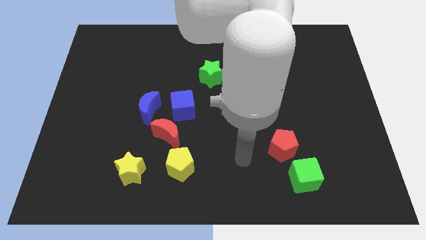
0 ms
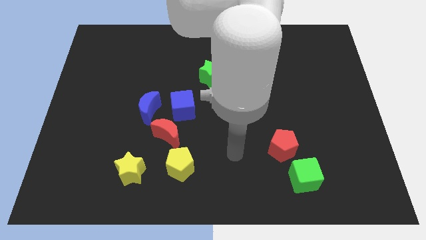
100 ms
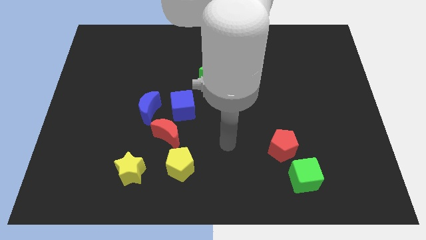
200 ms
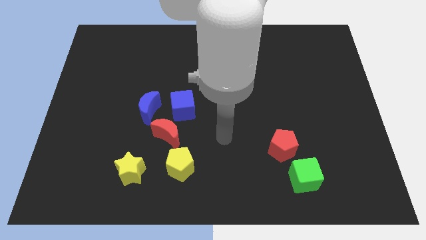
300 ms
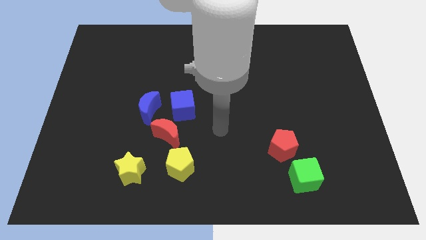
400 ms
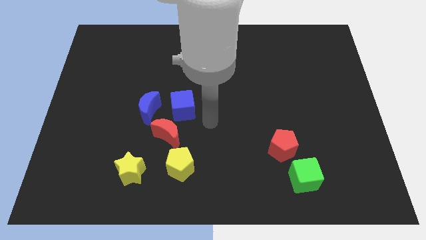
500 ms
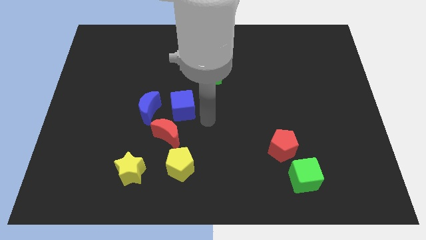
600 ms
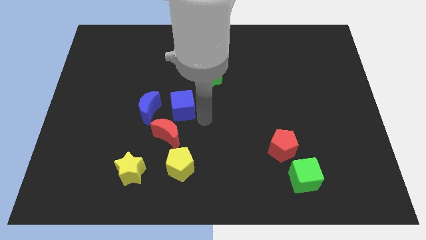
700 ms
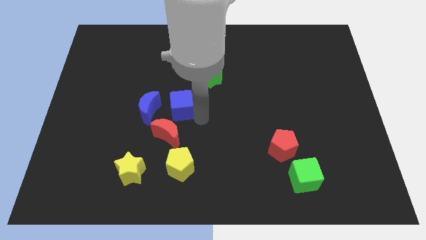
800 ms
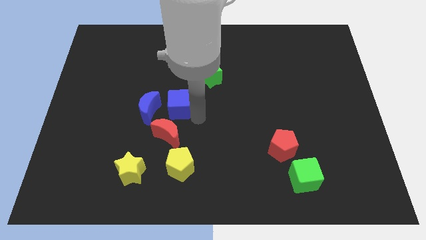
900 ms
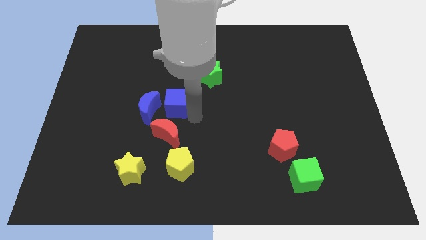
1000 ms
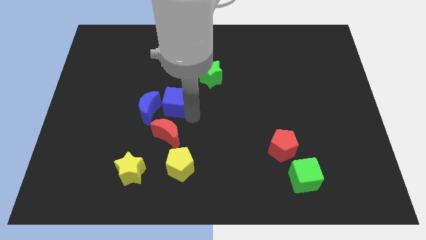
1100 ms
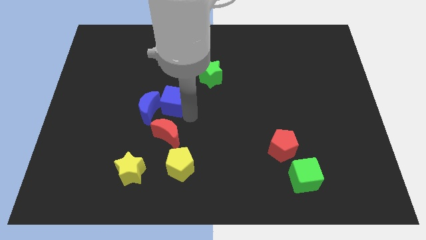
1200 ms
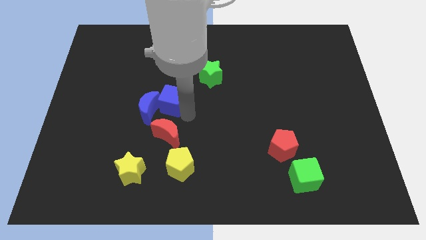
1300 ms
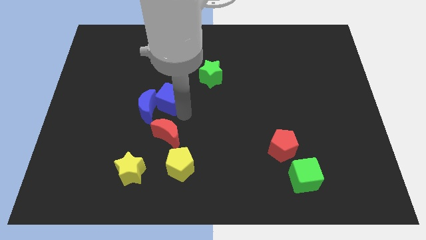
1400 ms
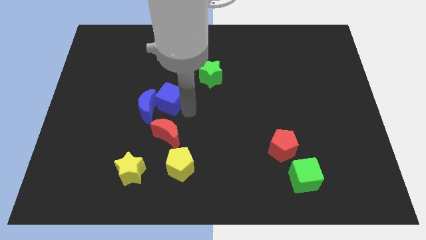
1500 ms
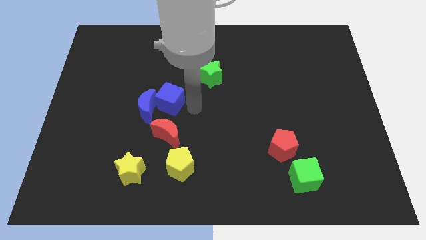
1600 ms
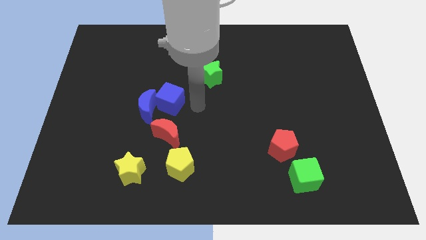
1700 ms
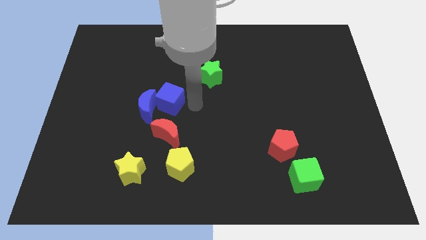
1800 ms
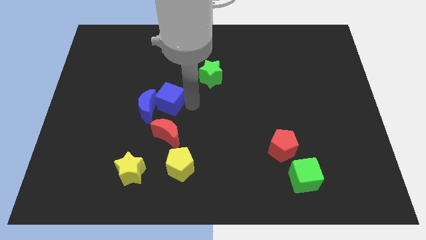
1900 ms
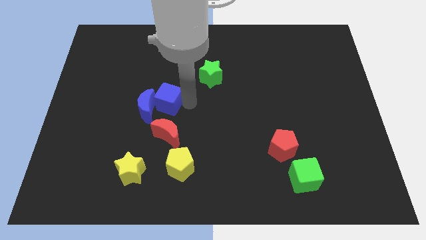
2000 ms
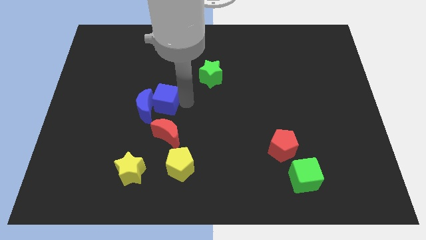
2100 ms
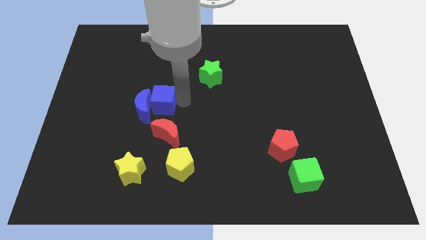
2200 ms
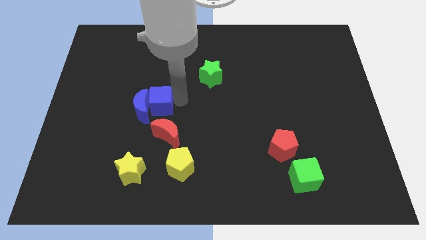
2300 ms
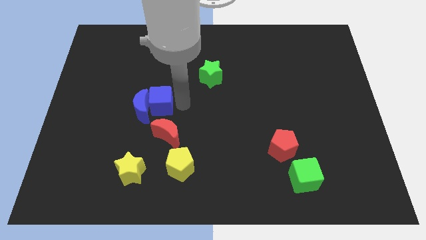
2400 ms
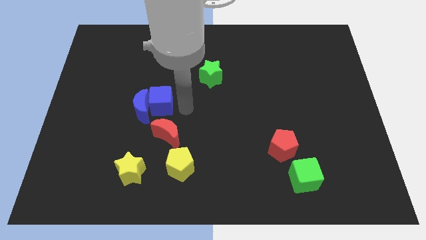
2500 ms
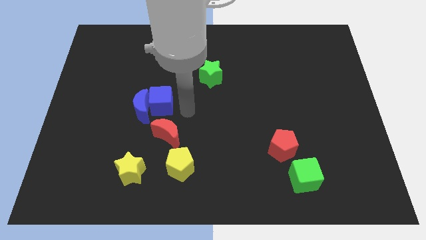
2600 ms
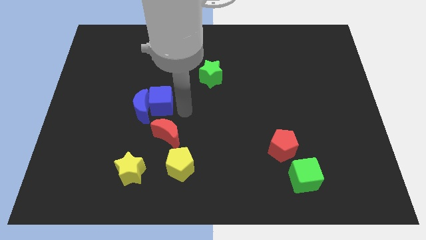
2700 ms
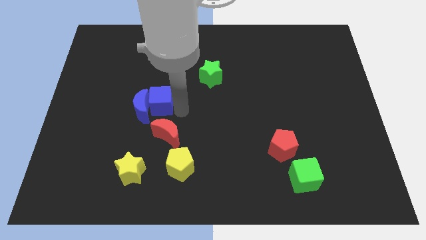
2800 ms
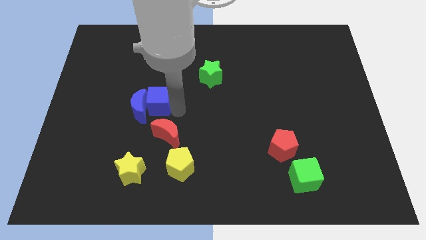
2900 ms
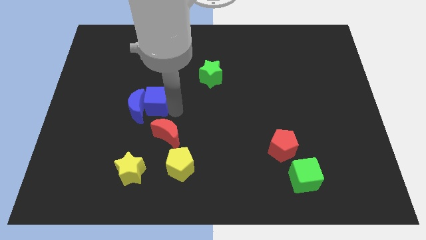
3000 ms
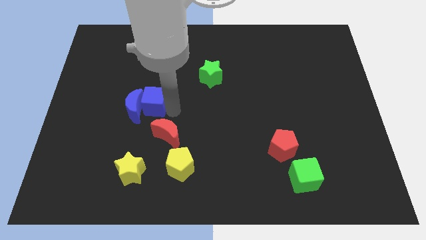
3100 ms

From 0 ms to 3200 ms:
move the blue cube left slightly

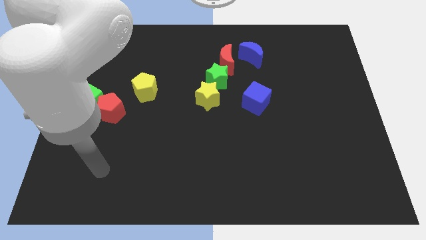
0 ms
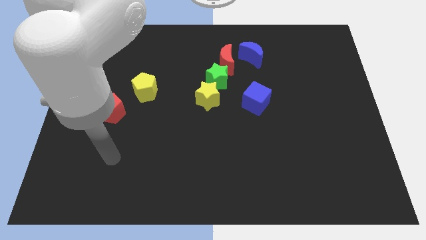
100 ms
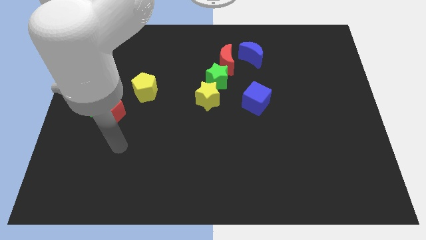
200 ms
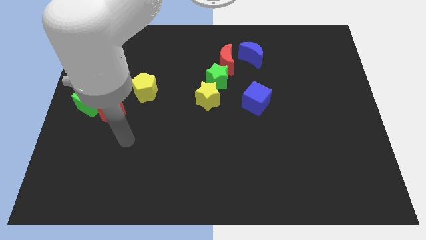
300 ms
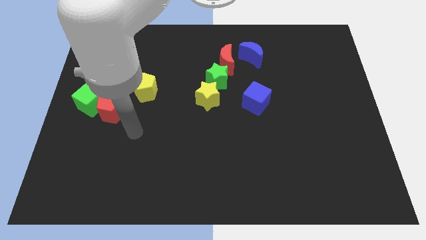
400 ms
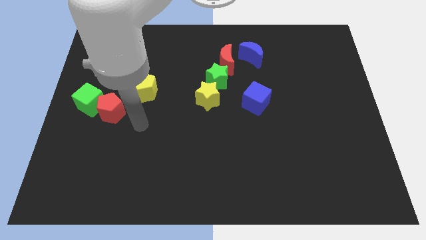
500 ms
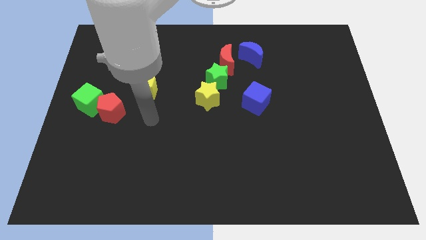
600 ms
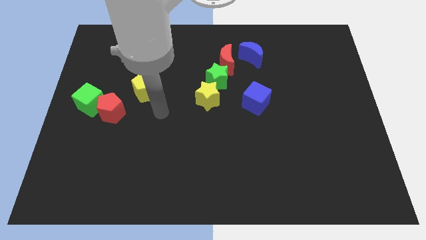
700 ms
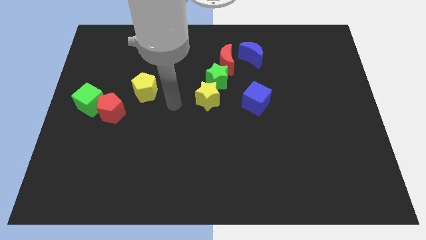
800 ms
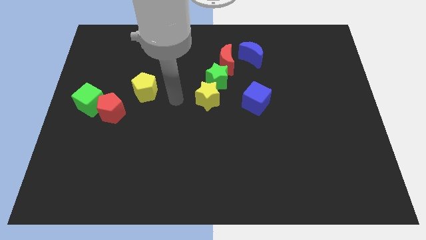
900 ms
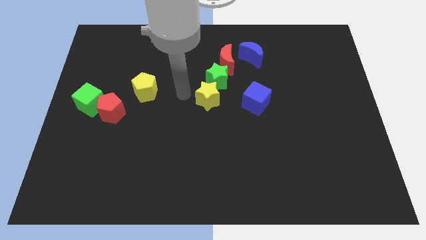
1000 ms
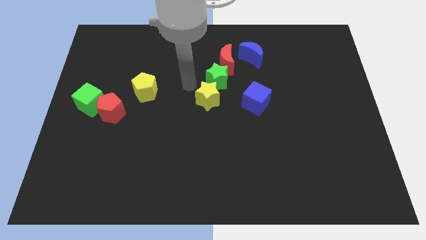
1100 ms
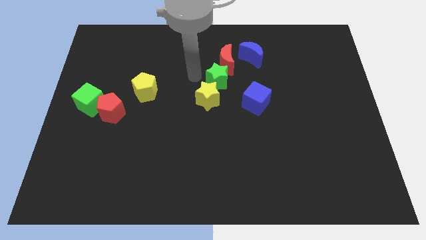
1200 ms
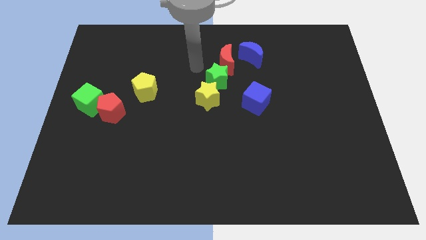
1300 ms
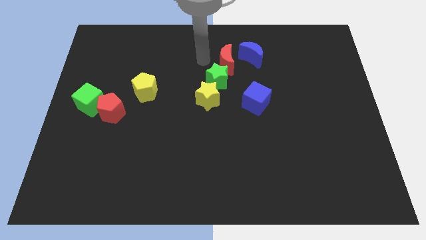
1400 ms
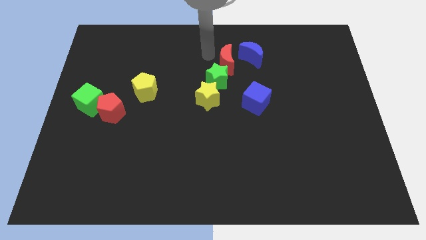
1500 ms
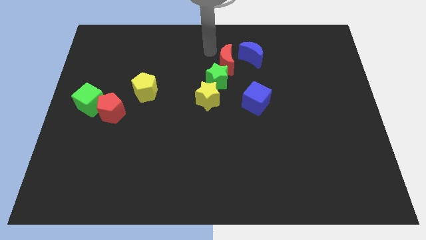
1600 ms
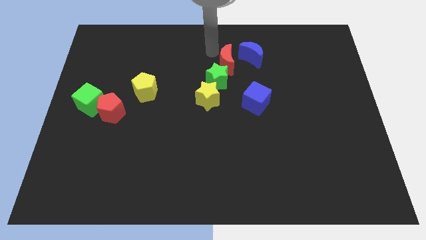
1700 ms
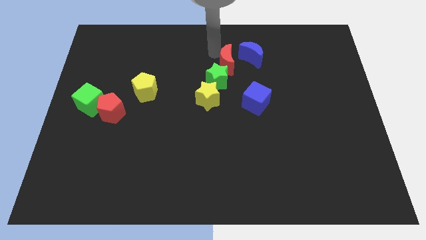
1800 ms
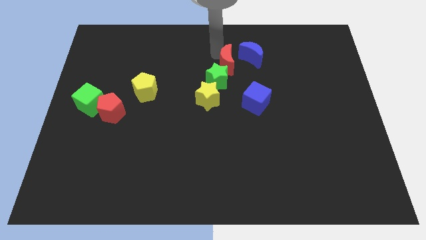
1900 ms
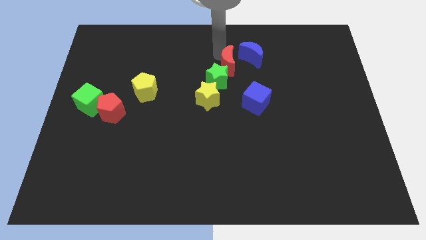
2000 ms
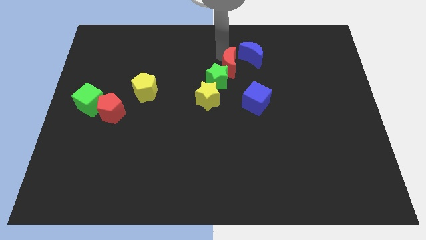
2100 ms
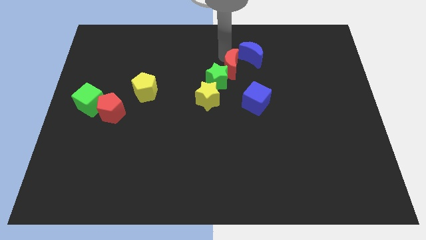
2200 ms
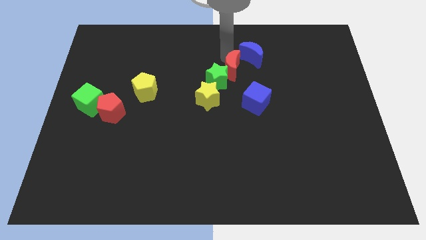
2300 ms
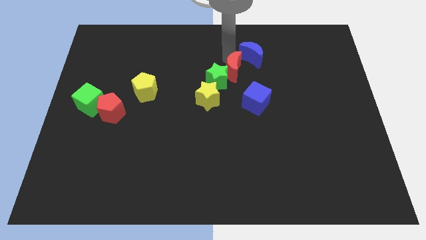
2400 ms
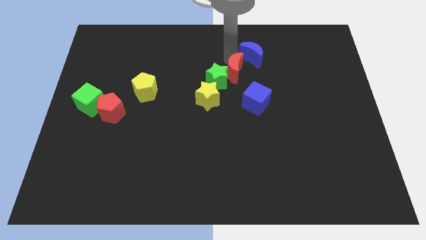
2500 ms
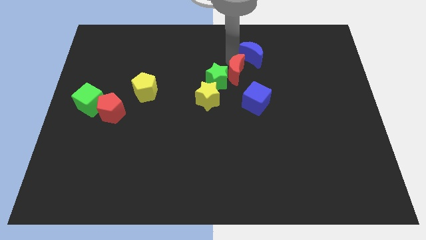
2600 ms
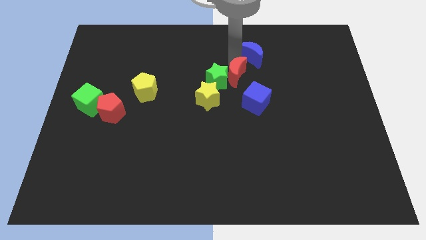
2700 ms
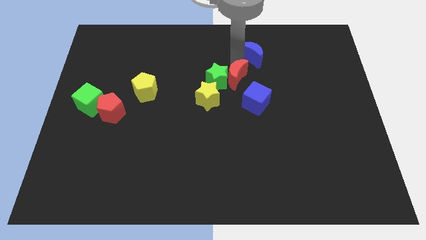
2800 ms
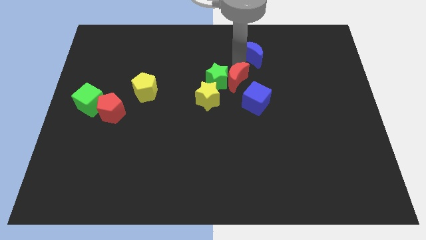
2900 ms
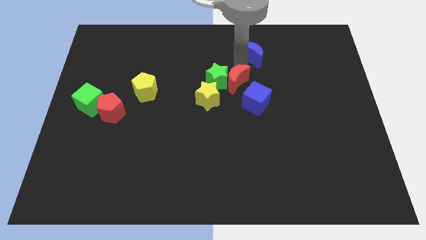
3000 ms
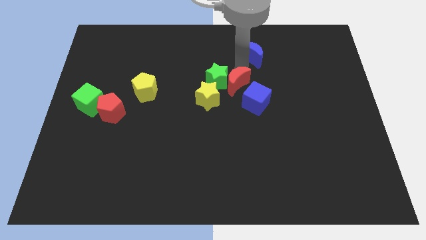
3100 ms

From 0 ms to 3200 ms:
slightly push the red moon down

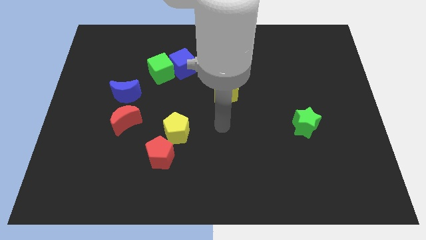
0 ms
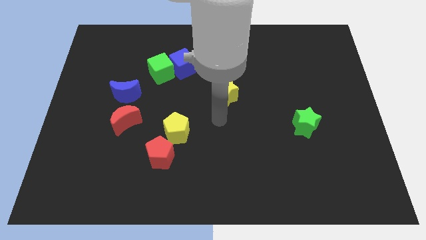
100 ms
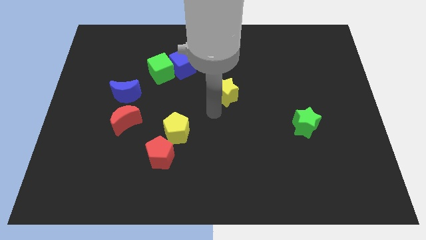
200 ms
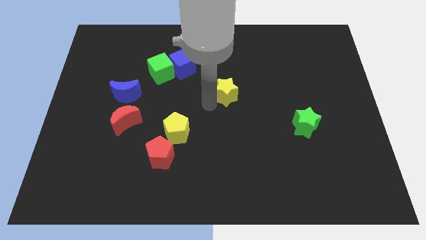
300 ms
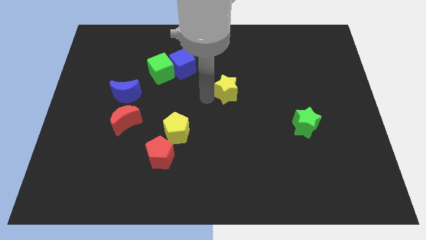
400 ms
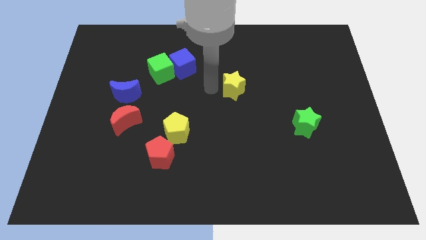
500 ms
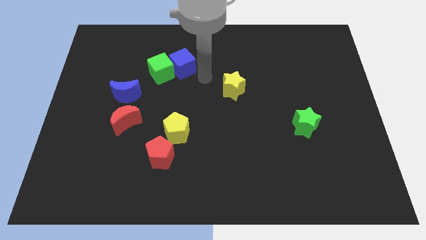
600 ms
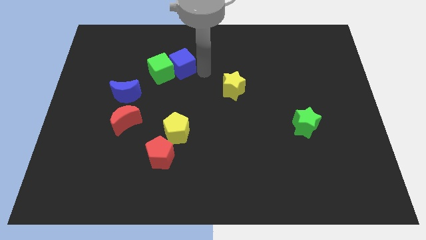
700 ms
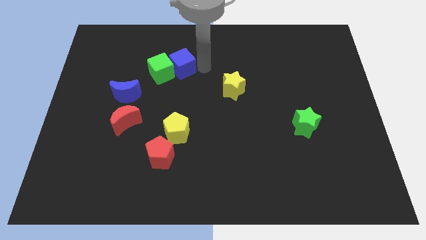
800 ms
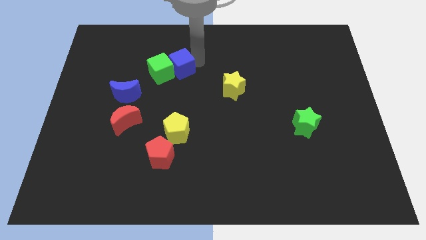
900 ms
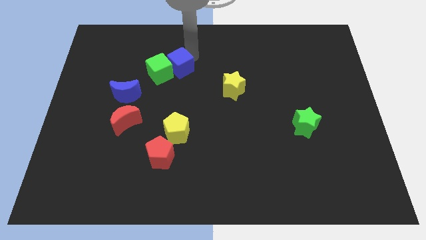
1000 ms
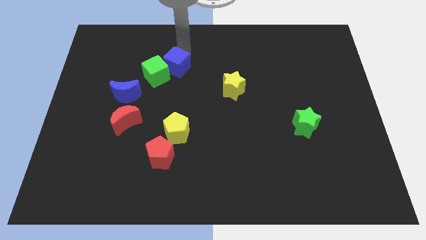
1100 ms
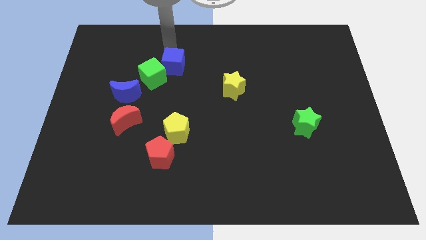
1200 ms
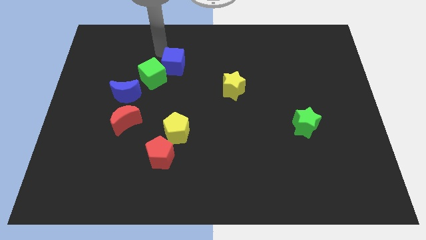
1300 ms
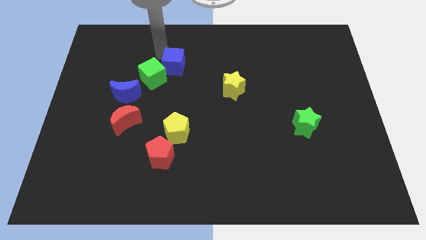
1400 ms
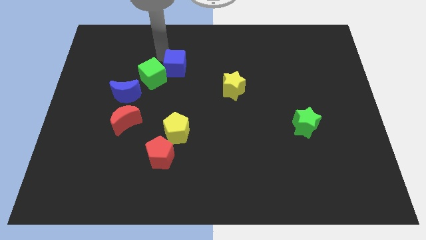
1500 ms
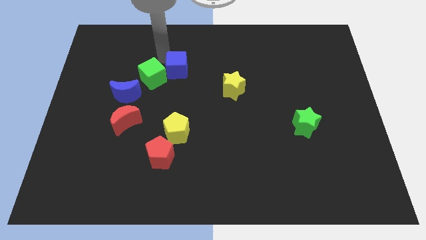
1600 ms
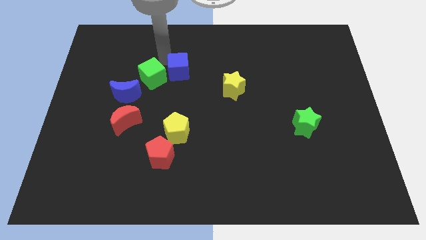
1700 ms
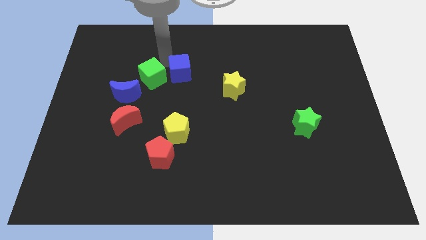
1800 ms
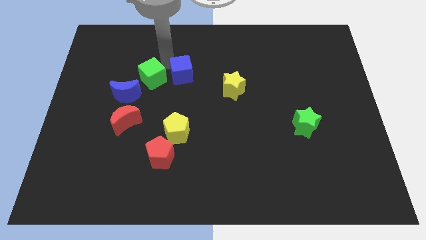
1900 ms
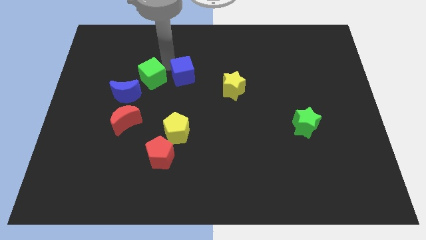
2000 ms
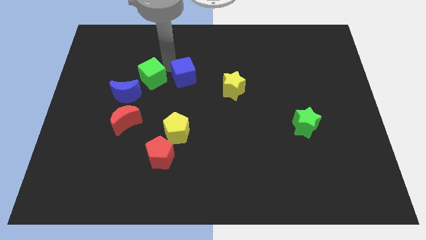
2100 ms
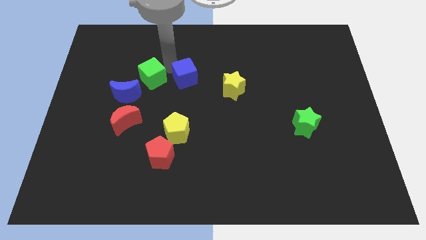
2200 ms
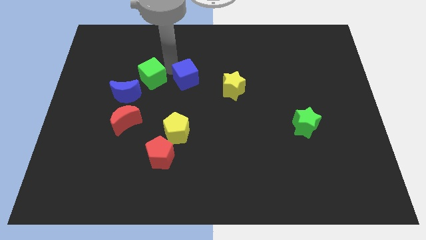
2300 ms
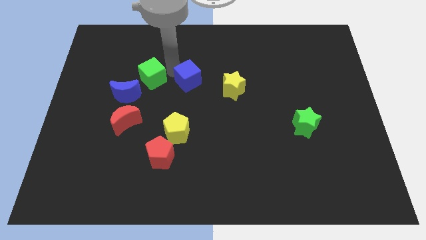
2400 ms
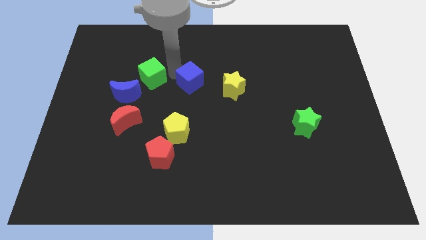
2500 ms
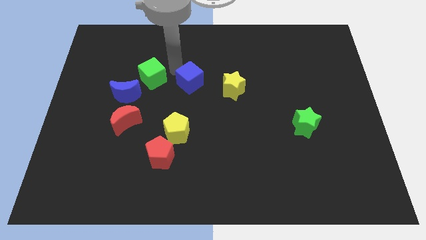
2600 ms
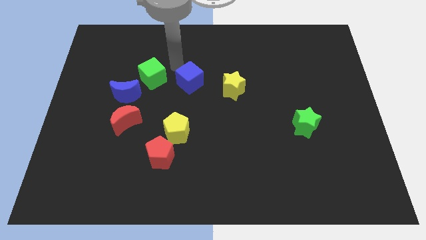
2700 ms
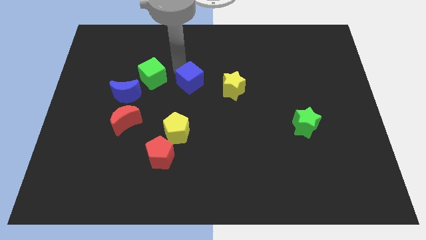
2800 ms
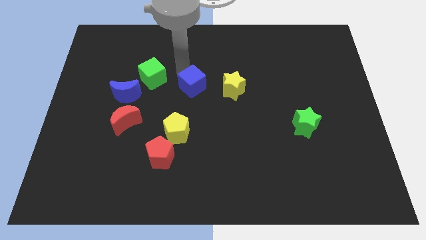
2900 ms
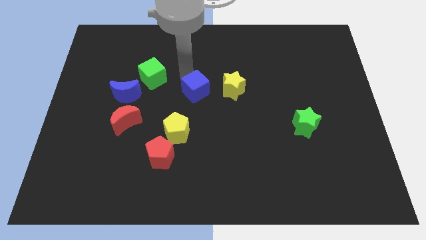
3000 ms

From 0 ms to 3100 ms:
slightly move the blue cube downwards and to the right
